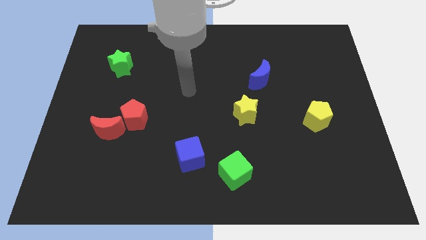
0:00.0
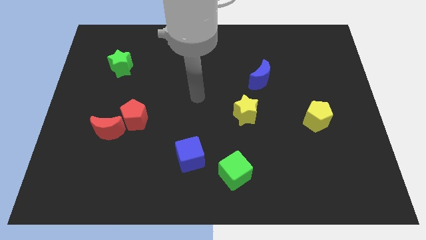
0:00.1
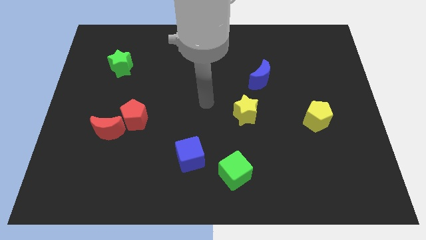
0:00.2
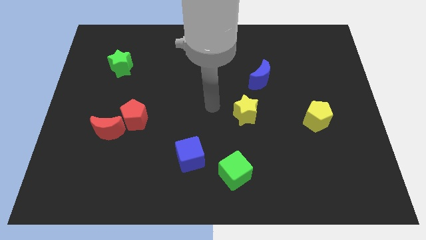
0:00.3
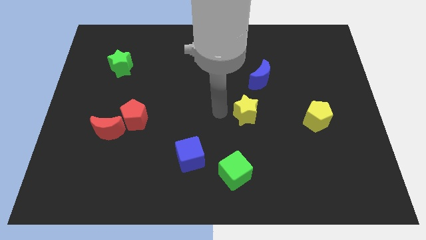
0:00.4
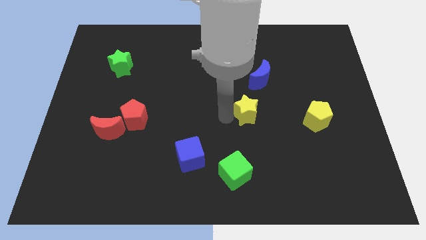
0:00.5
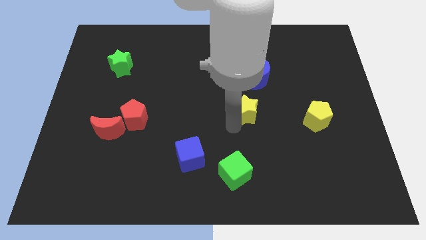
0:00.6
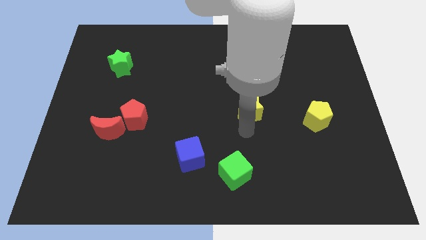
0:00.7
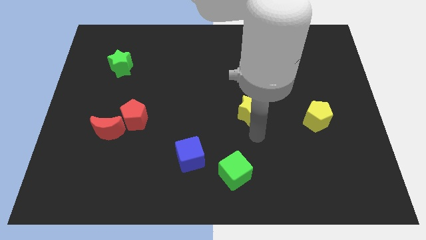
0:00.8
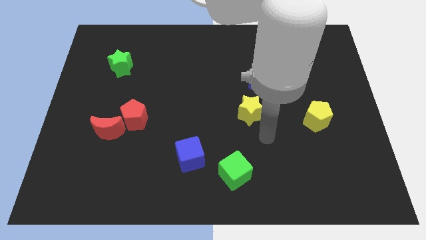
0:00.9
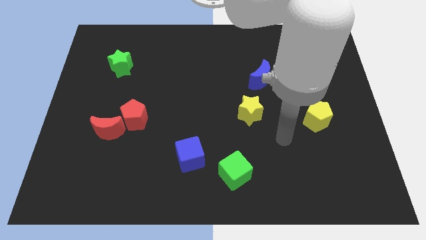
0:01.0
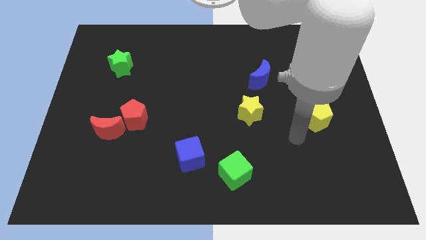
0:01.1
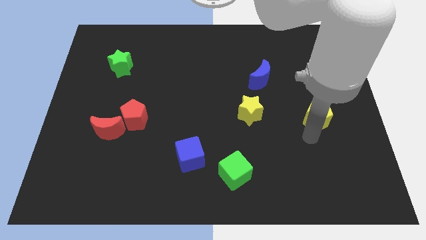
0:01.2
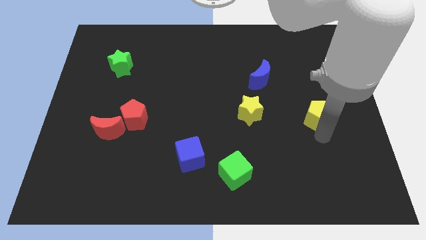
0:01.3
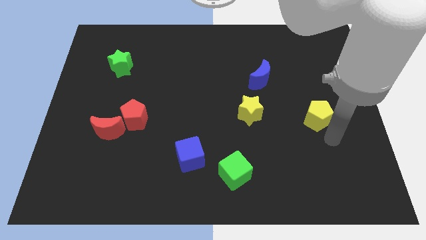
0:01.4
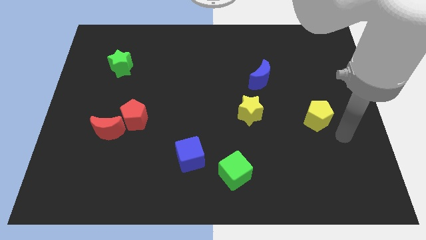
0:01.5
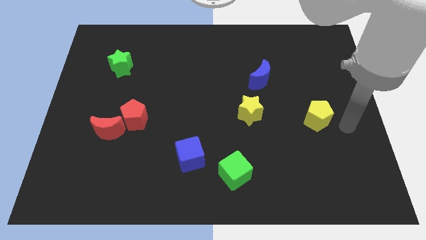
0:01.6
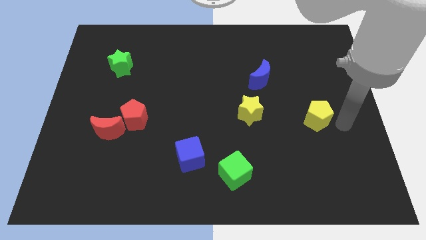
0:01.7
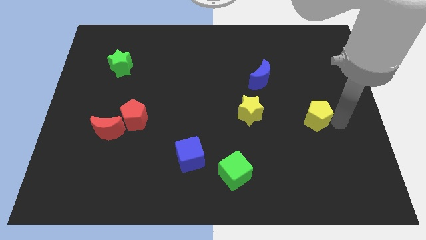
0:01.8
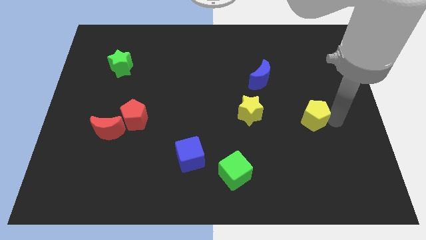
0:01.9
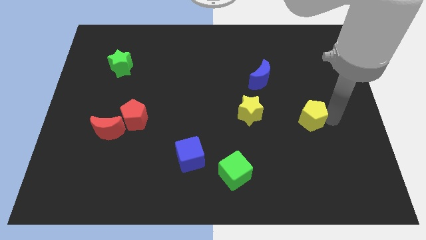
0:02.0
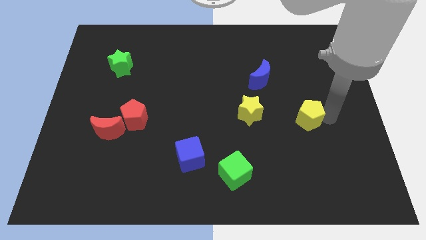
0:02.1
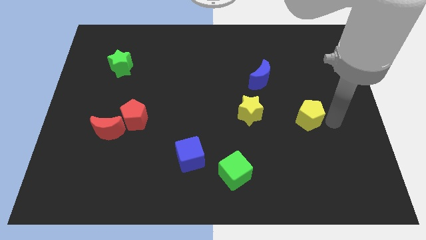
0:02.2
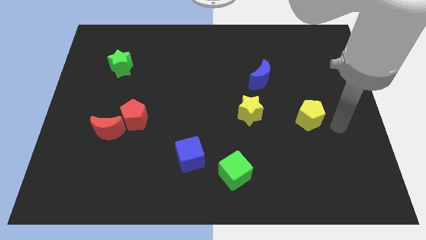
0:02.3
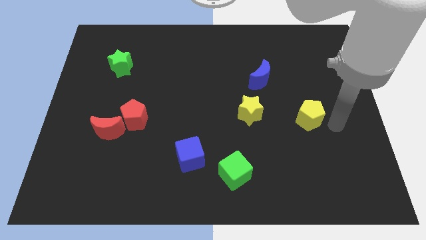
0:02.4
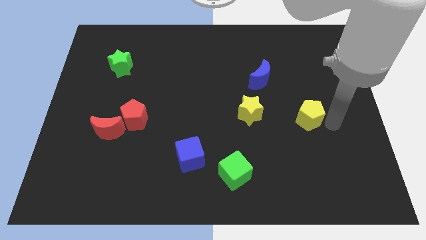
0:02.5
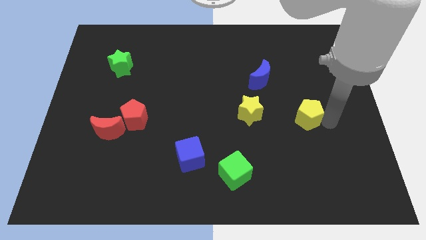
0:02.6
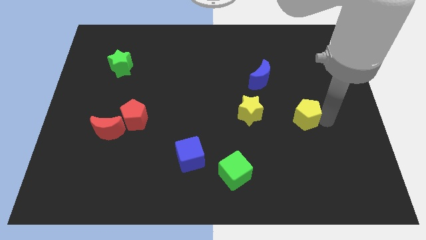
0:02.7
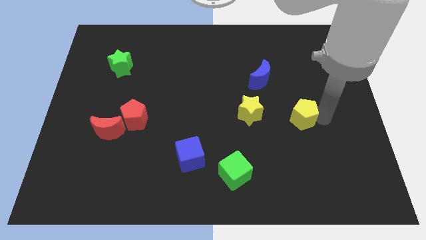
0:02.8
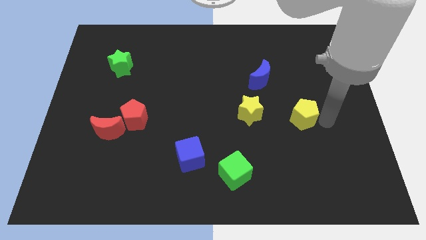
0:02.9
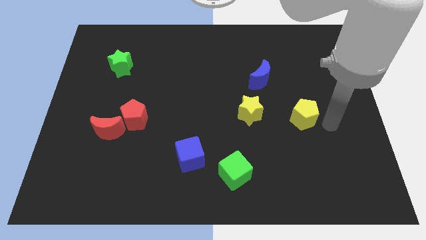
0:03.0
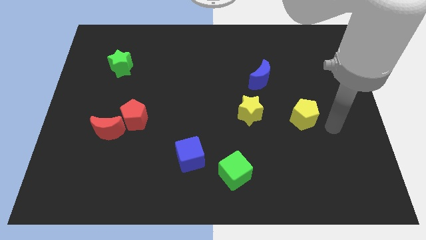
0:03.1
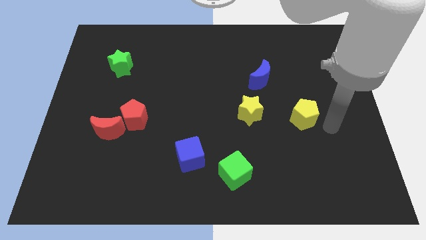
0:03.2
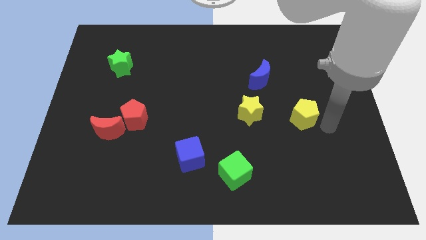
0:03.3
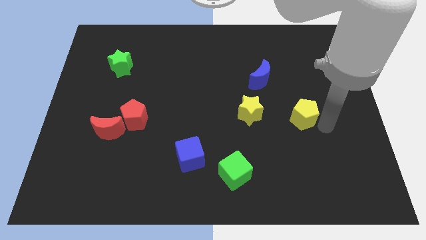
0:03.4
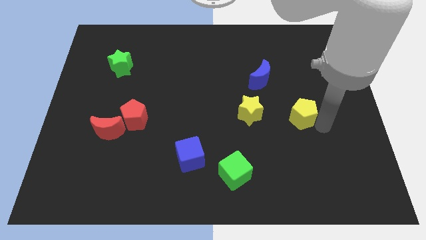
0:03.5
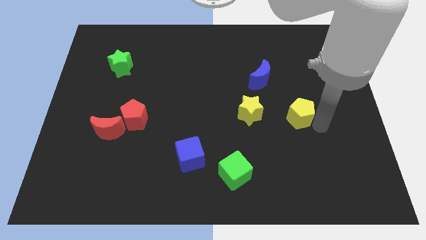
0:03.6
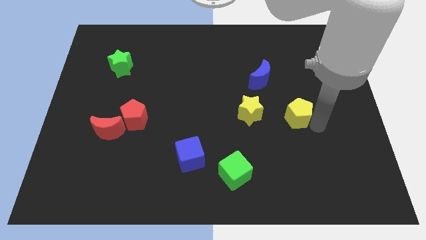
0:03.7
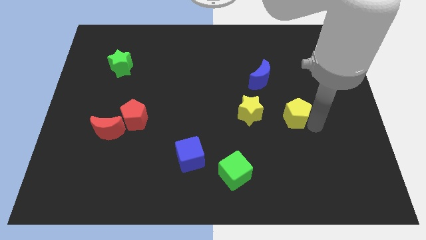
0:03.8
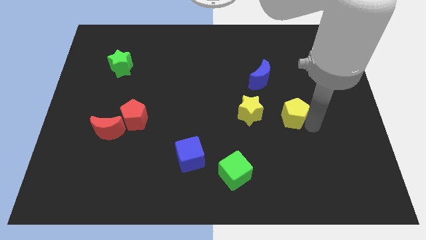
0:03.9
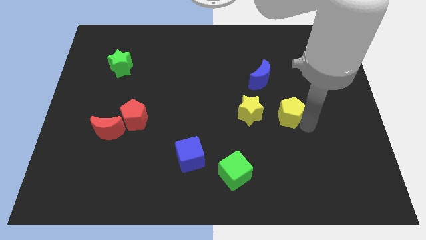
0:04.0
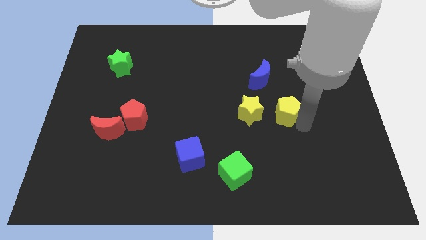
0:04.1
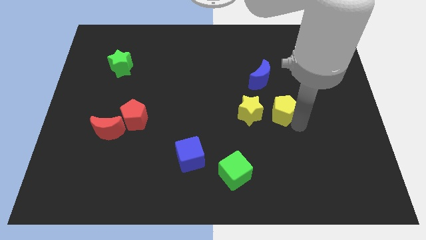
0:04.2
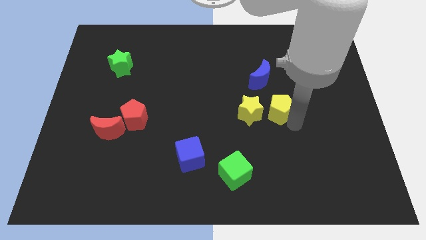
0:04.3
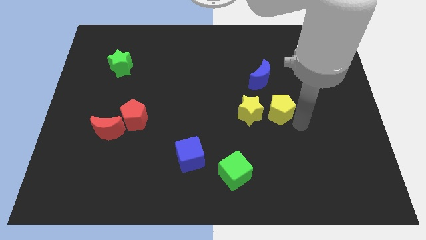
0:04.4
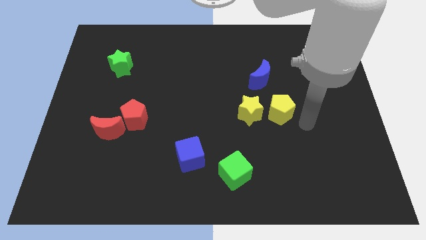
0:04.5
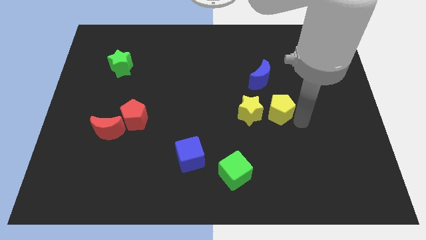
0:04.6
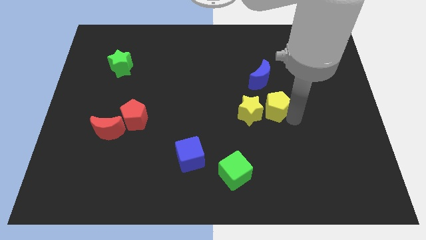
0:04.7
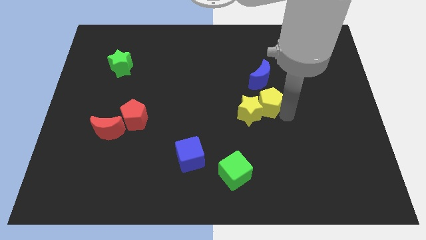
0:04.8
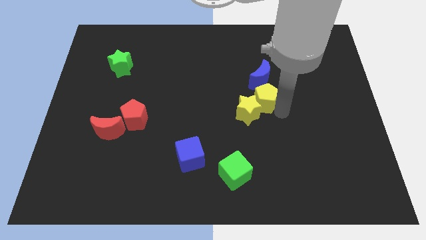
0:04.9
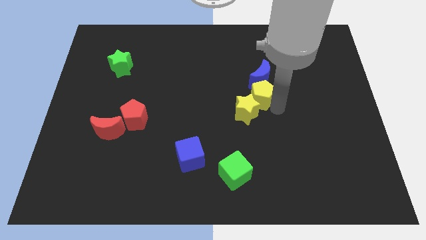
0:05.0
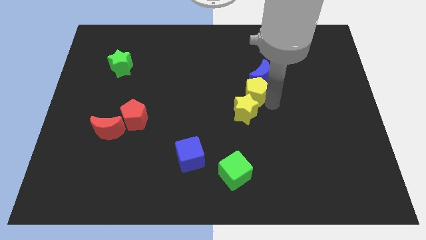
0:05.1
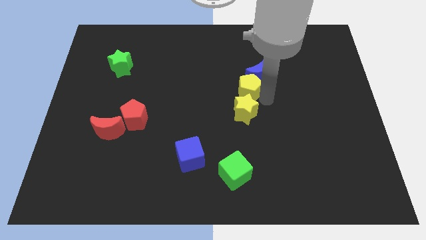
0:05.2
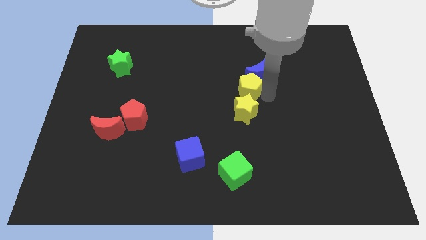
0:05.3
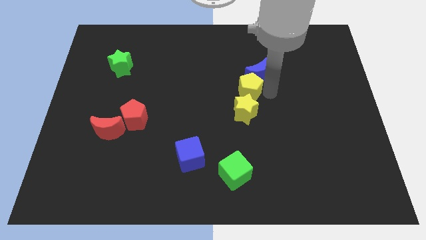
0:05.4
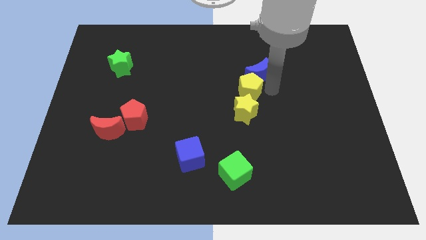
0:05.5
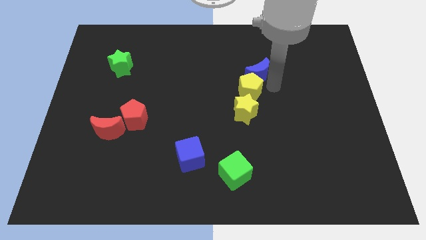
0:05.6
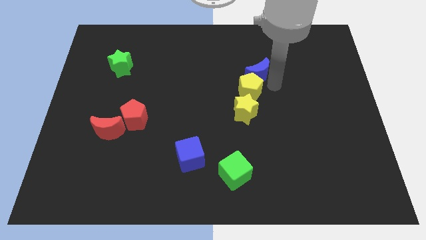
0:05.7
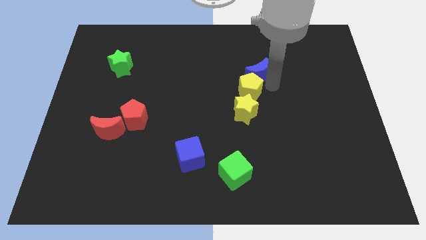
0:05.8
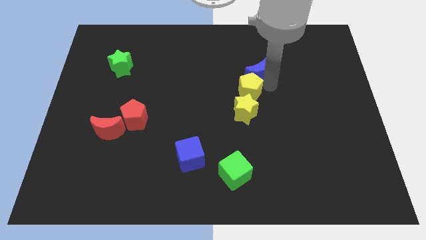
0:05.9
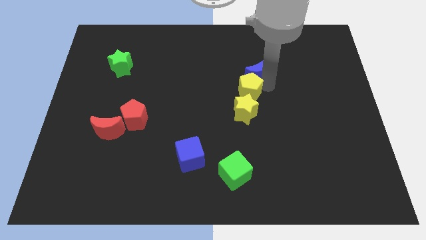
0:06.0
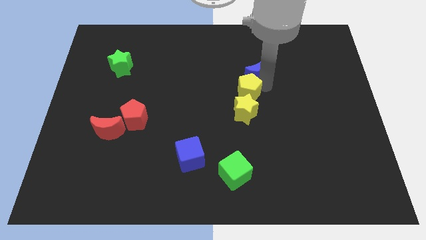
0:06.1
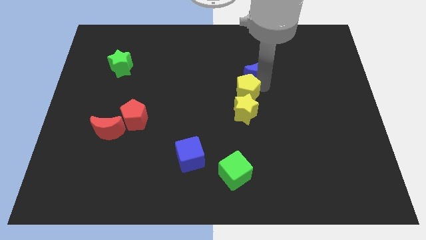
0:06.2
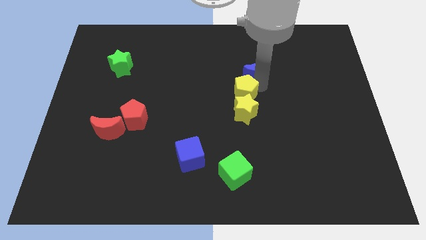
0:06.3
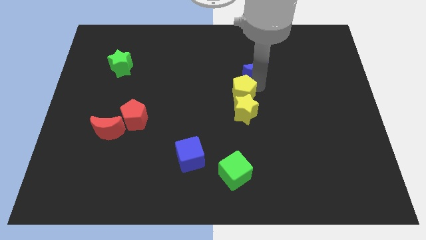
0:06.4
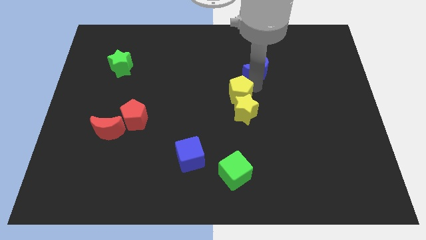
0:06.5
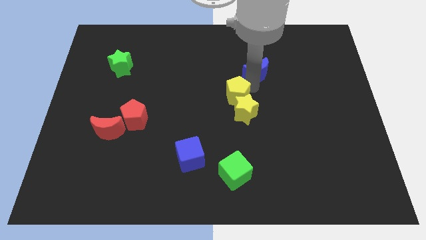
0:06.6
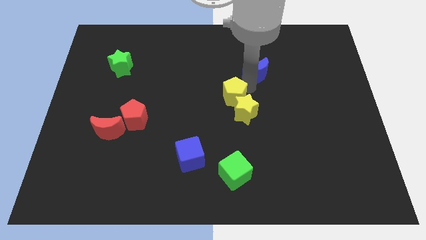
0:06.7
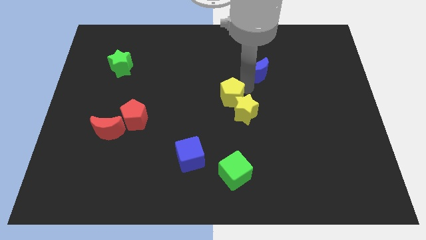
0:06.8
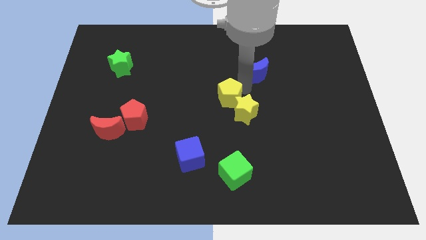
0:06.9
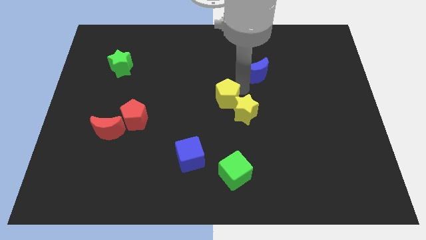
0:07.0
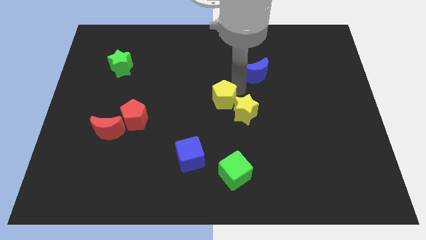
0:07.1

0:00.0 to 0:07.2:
push the yellow pentagon to the left

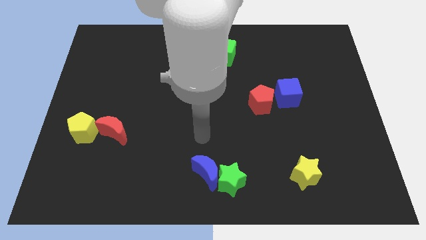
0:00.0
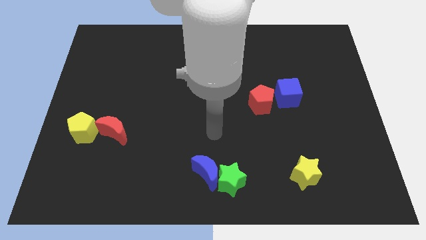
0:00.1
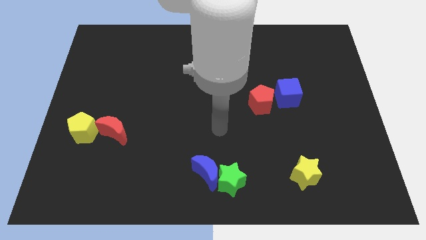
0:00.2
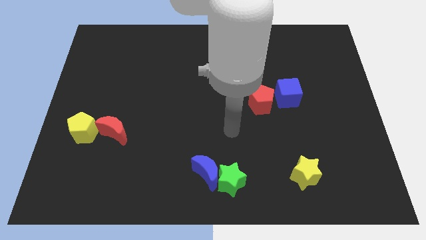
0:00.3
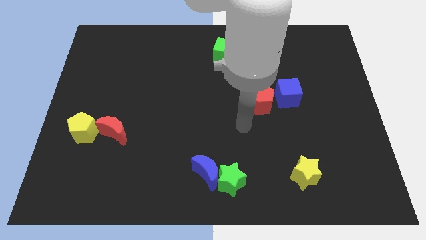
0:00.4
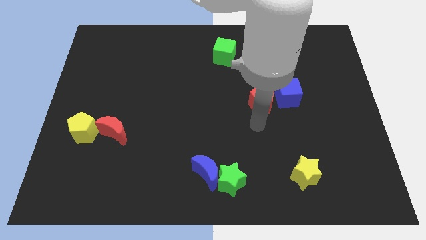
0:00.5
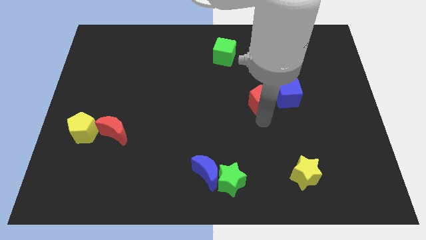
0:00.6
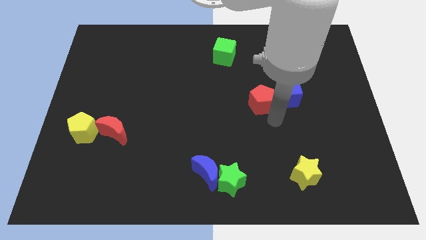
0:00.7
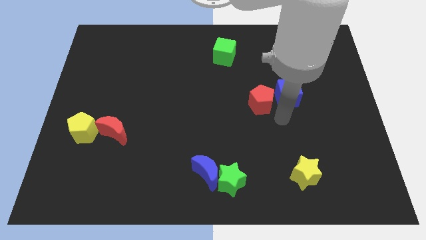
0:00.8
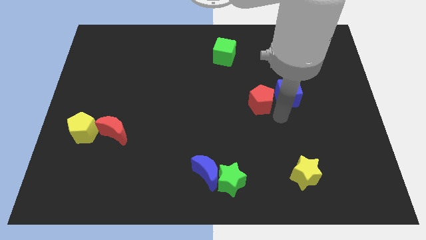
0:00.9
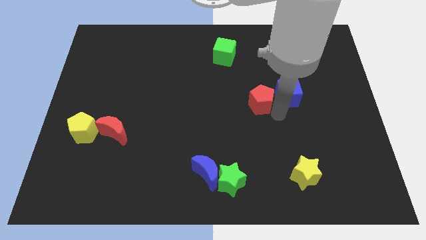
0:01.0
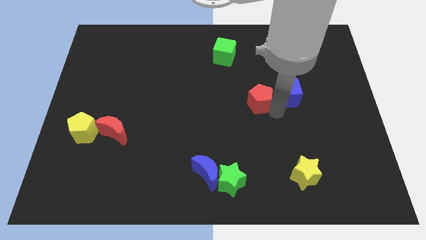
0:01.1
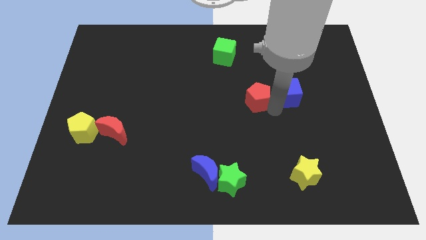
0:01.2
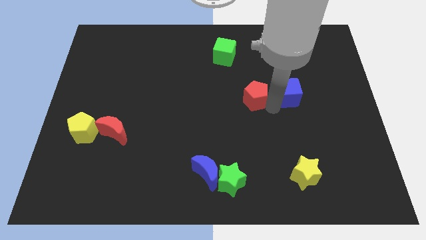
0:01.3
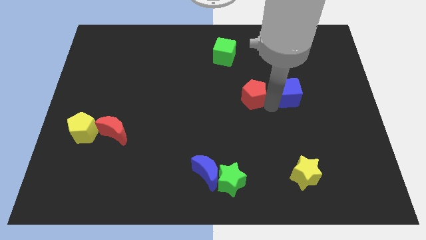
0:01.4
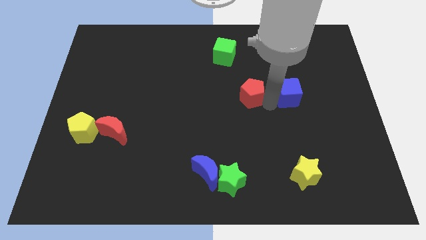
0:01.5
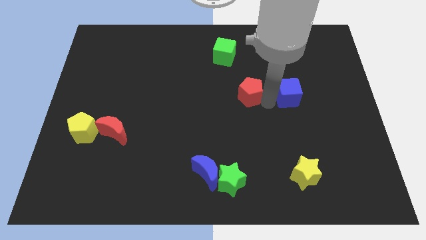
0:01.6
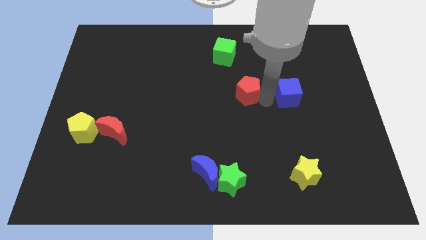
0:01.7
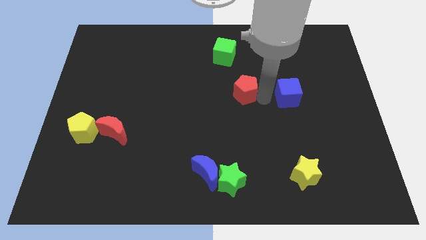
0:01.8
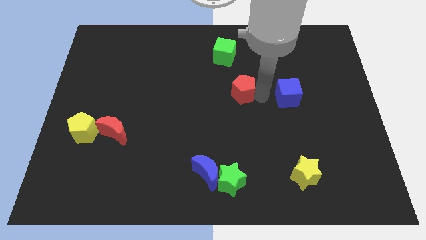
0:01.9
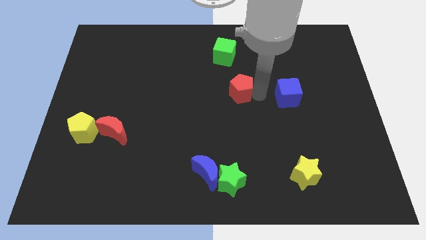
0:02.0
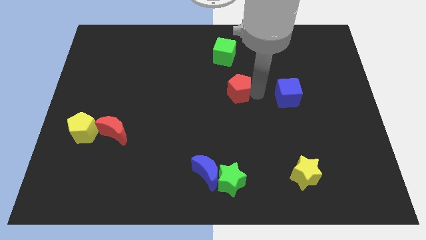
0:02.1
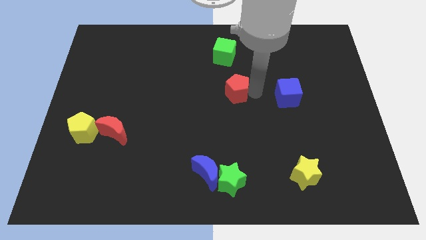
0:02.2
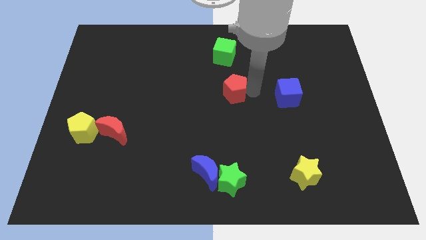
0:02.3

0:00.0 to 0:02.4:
slightly slide the red pentagon diagonally upwards and to the left
